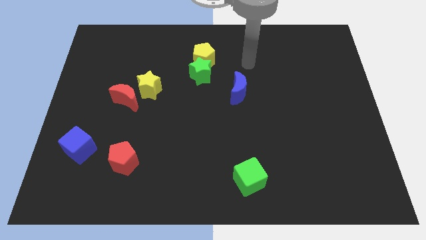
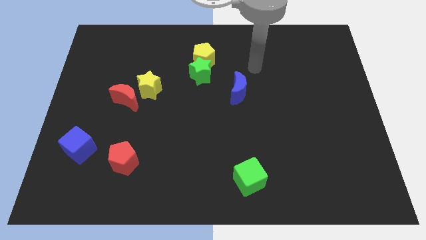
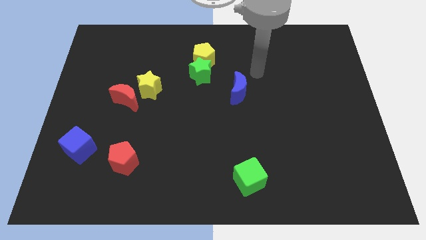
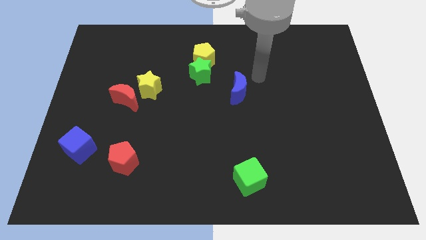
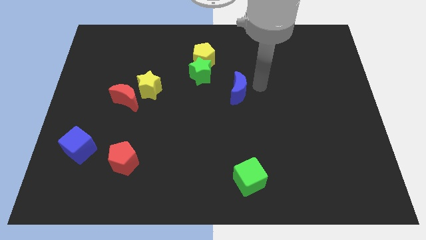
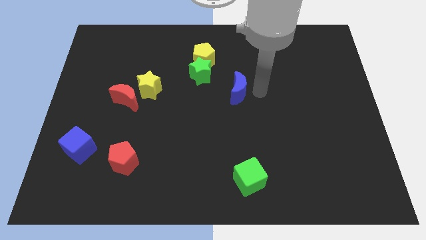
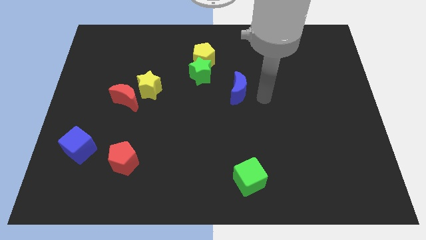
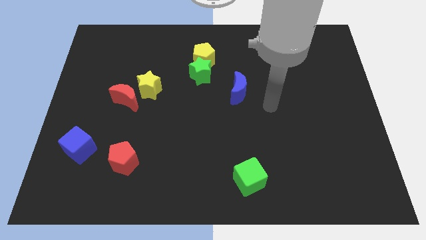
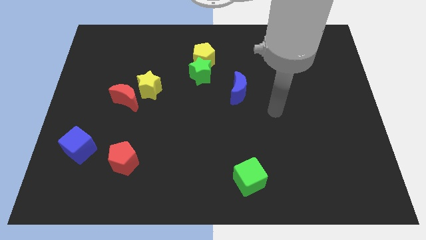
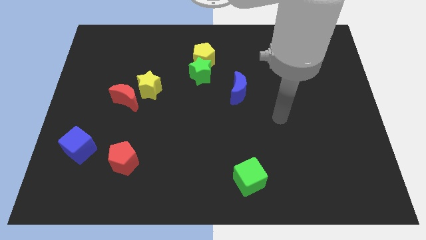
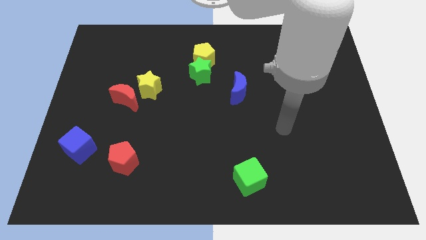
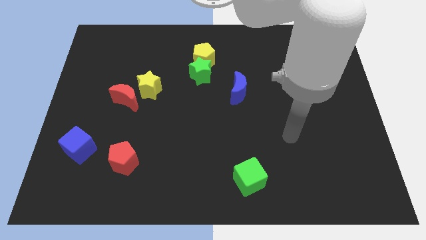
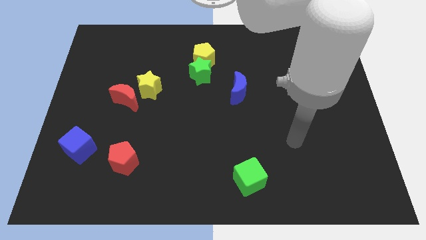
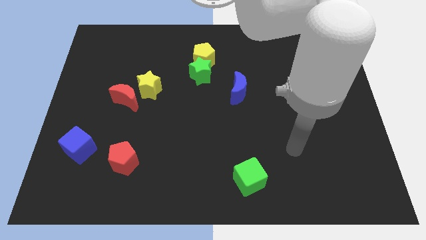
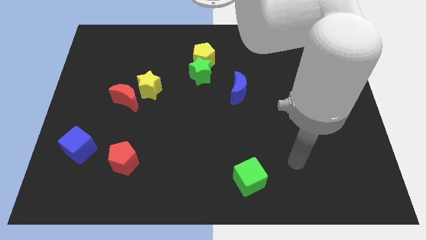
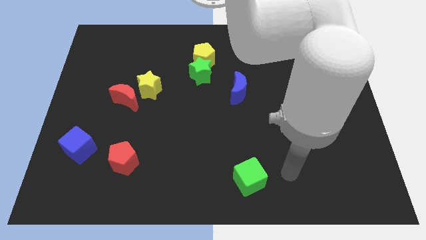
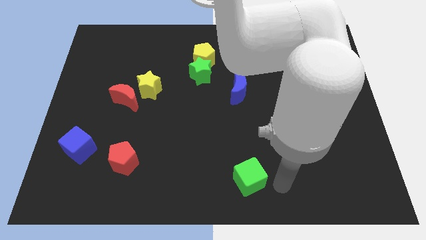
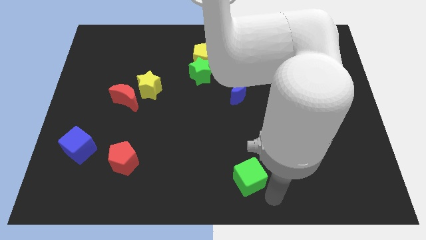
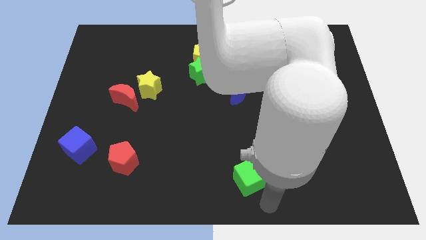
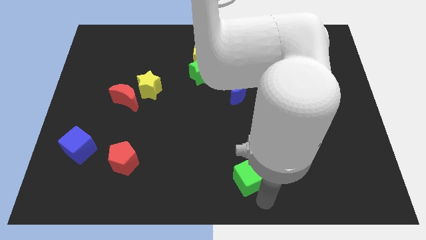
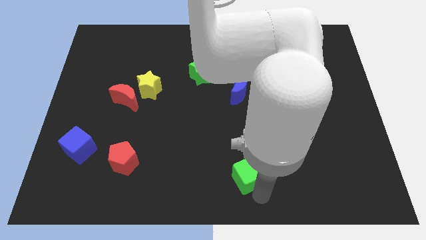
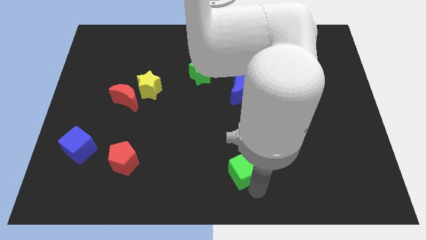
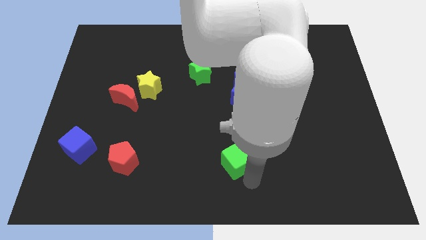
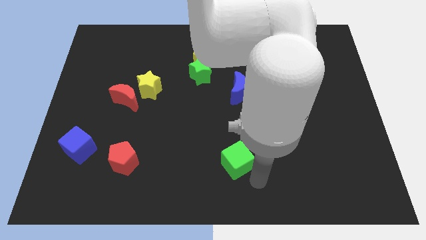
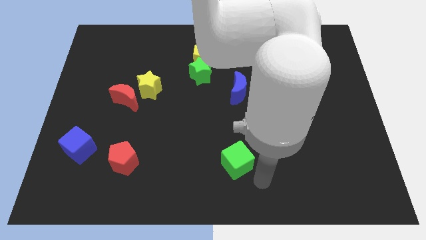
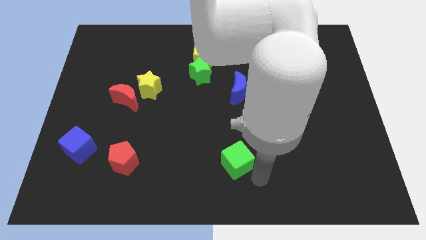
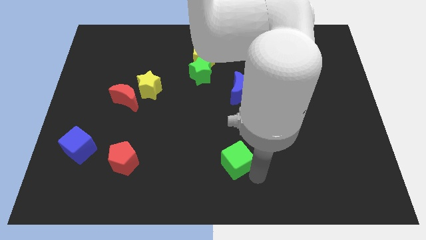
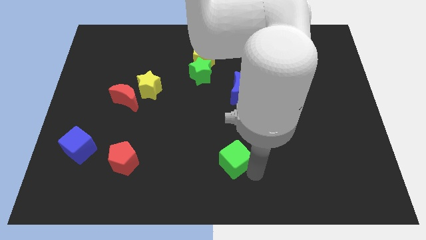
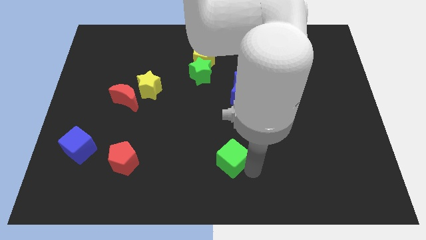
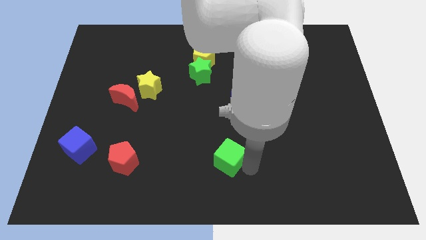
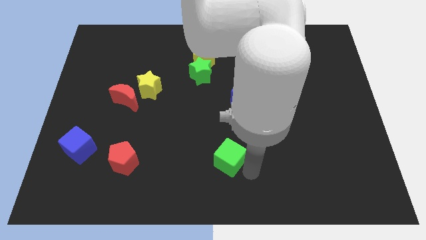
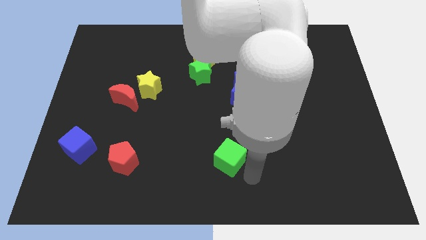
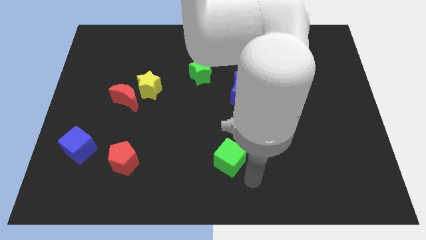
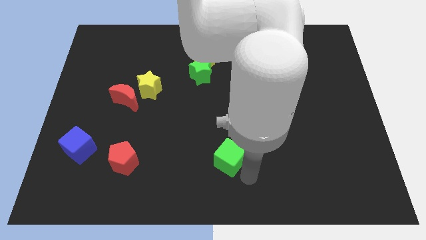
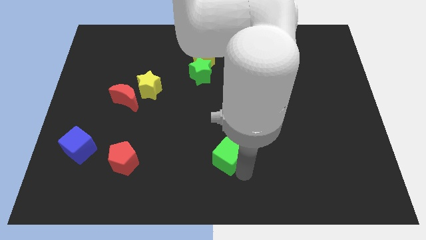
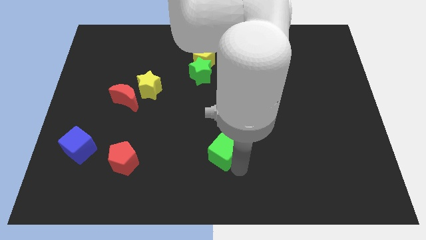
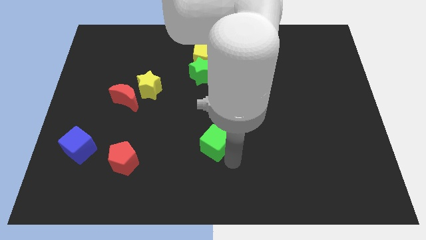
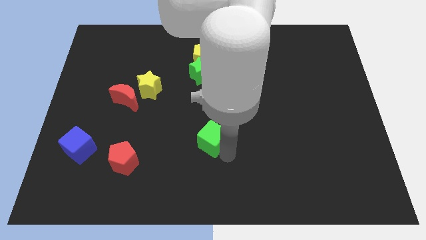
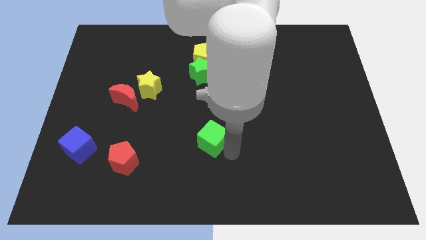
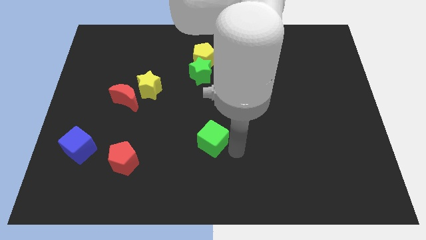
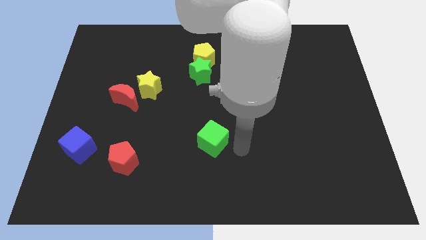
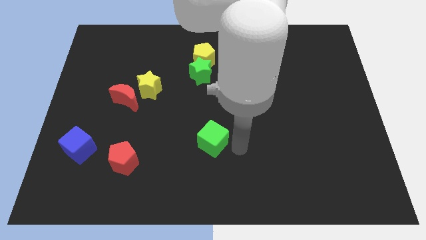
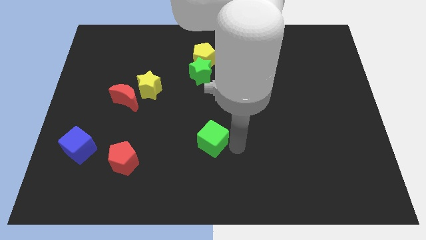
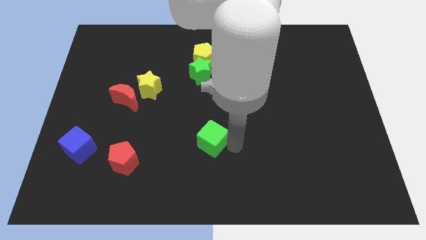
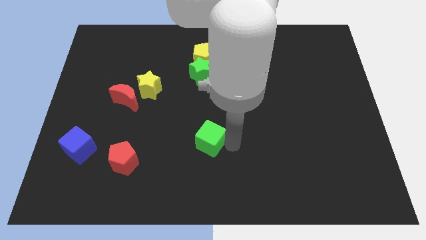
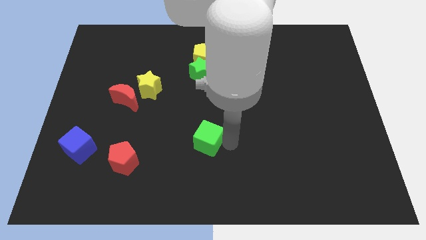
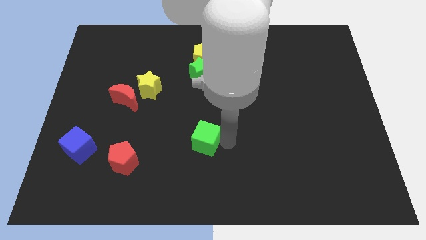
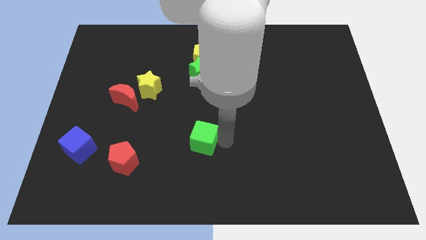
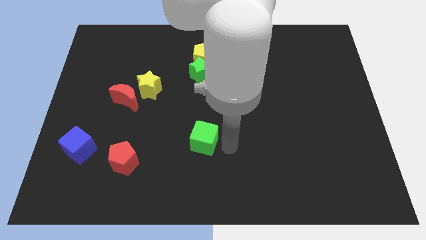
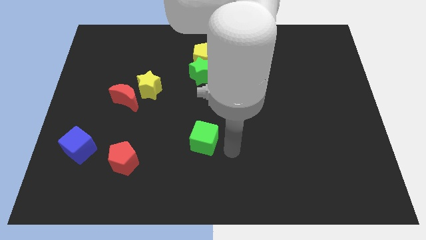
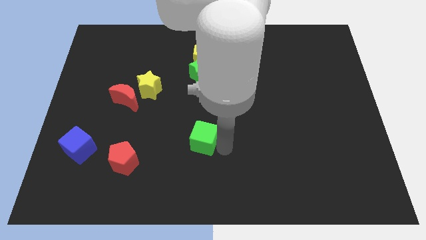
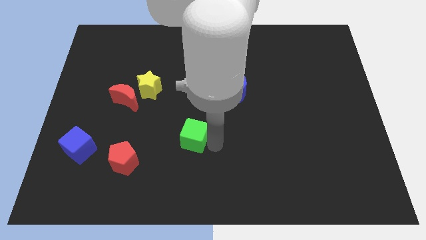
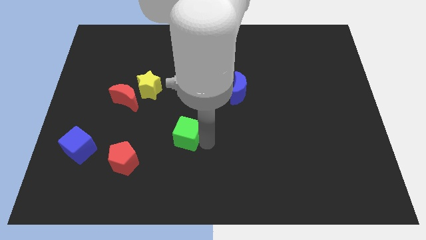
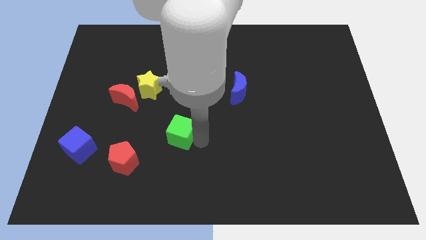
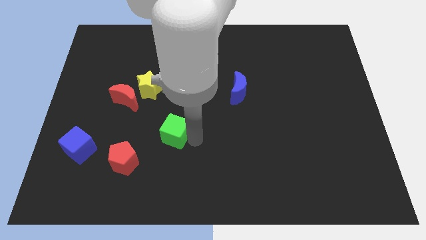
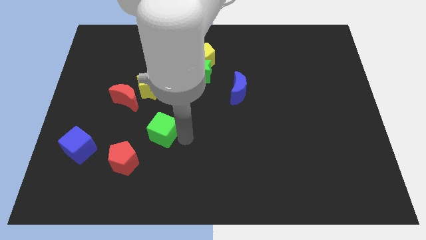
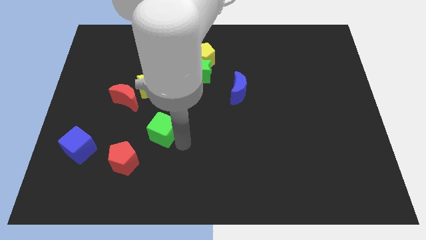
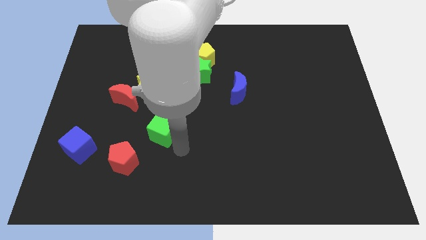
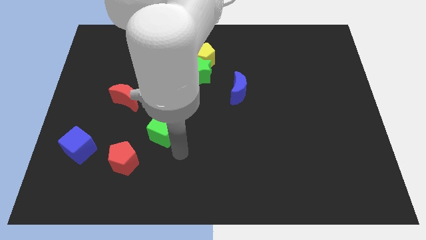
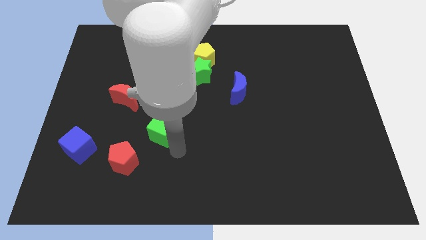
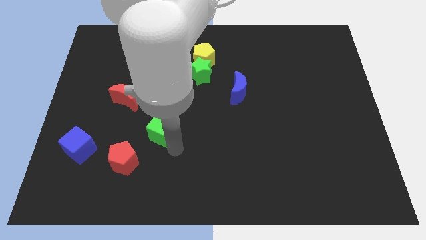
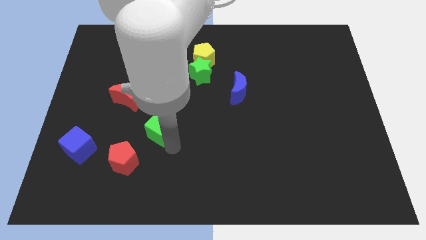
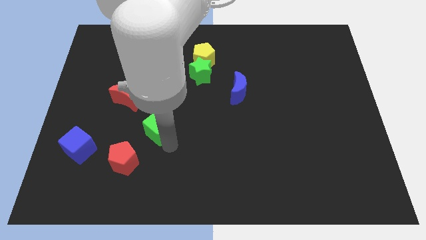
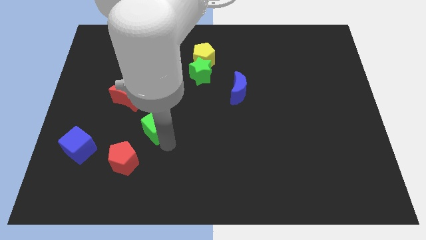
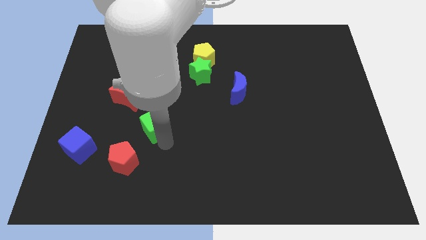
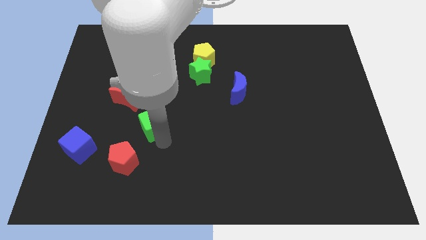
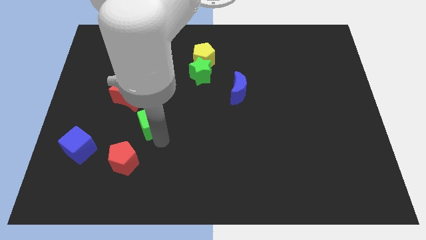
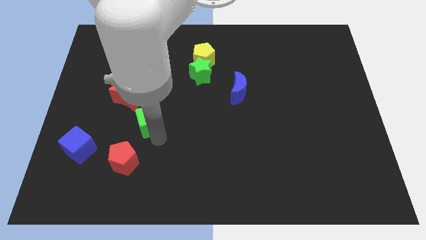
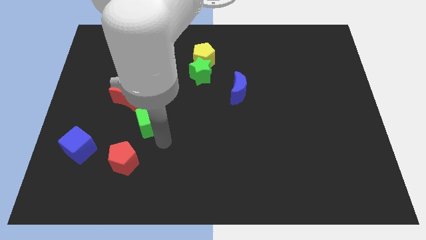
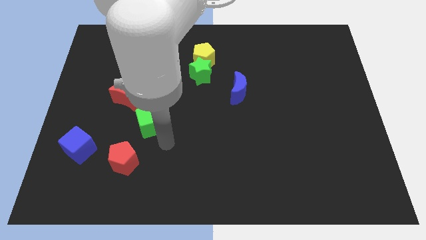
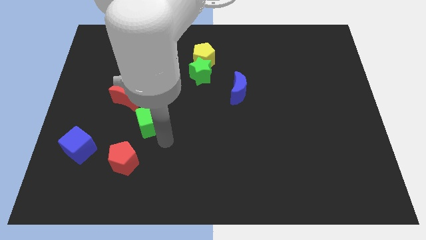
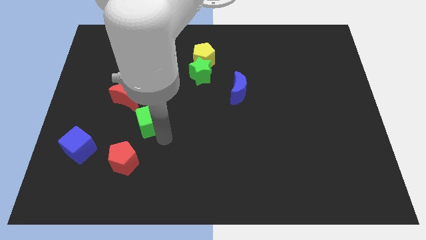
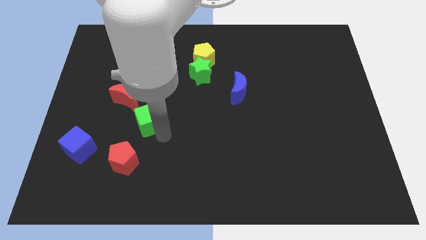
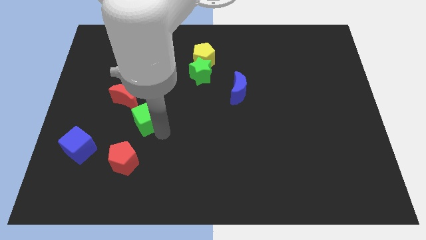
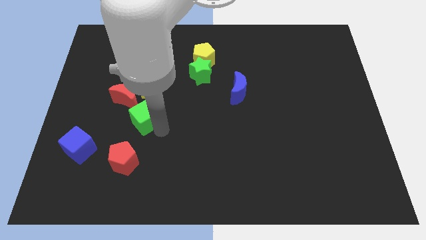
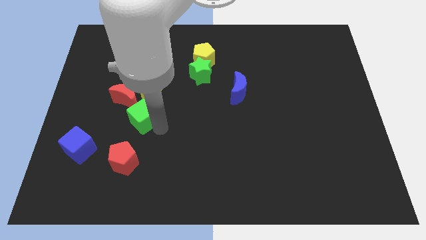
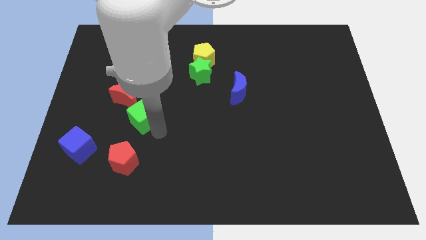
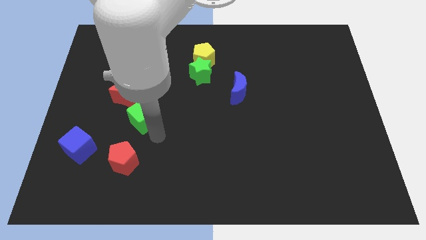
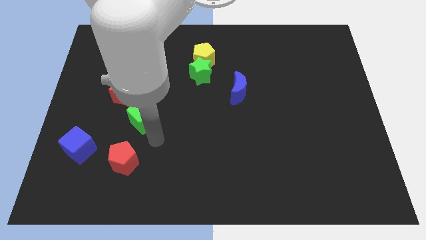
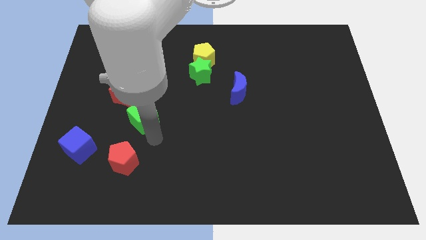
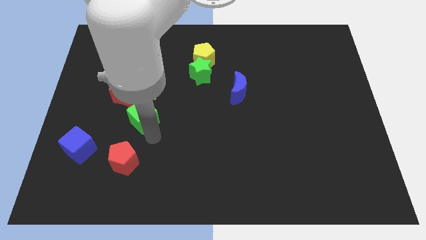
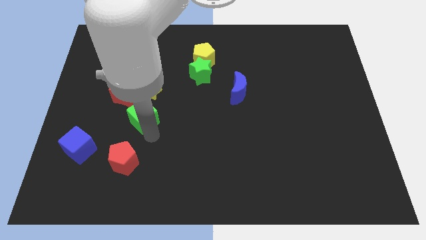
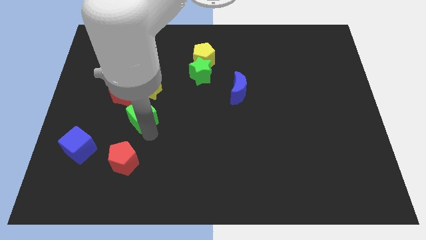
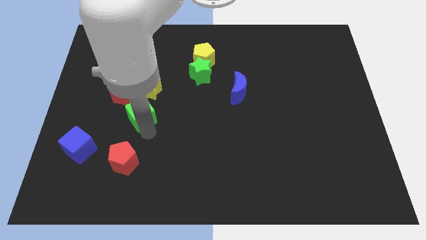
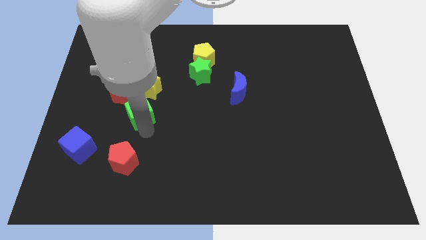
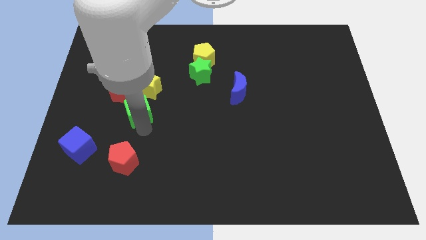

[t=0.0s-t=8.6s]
put the green cube close to the red moon
